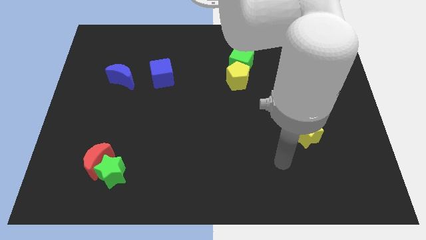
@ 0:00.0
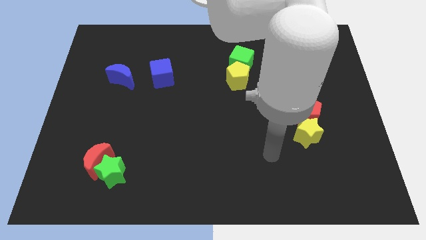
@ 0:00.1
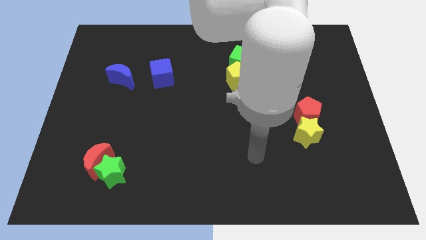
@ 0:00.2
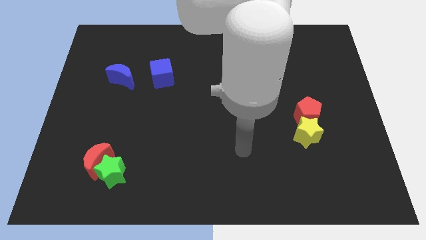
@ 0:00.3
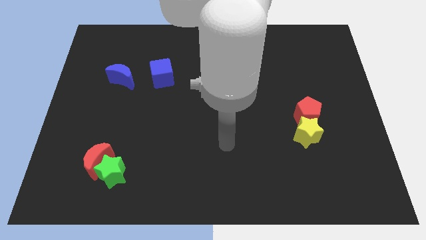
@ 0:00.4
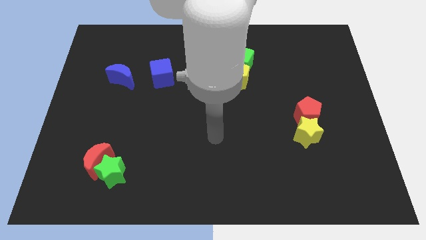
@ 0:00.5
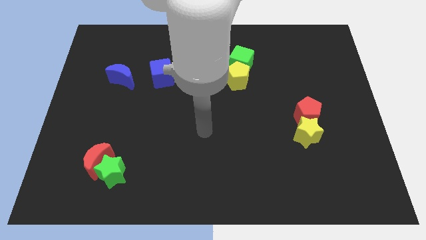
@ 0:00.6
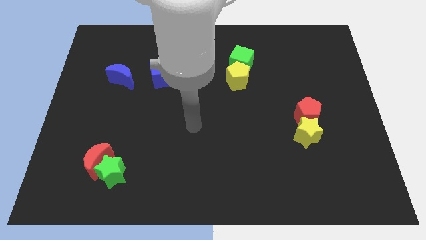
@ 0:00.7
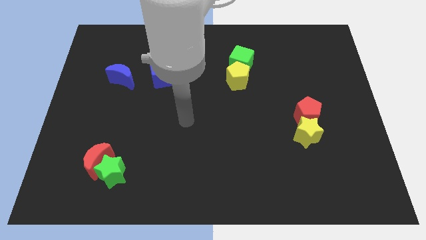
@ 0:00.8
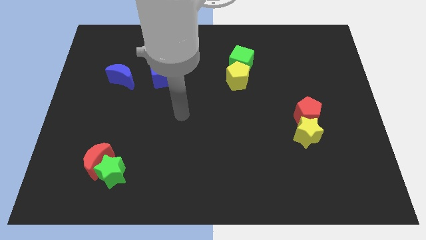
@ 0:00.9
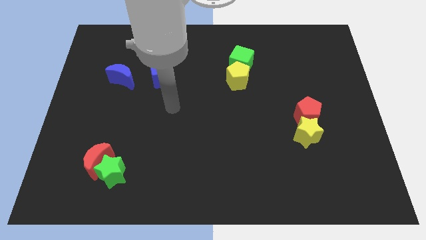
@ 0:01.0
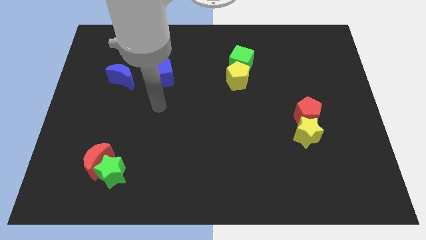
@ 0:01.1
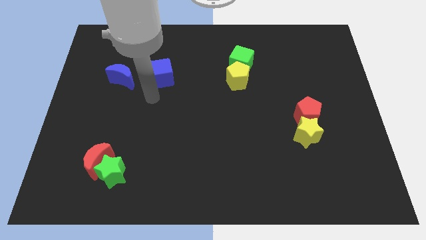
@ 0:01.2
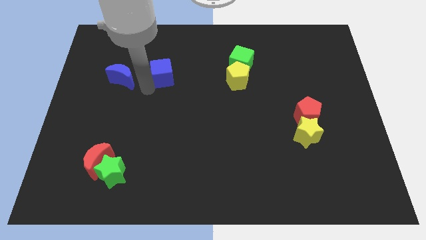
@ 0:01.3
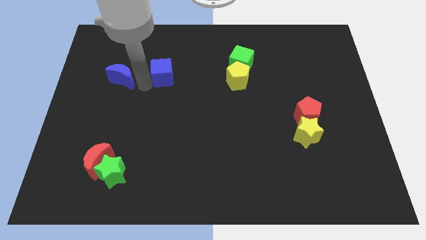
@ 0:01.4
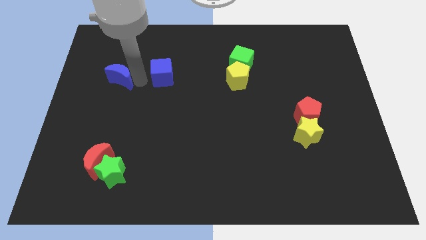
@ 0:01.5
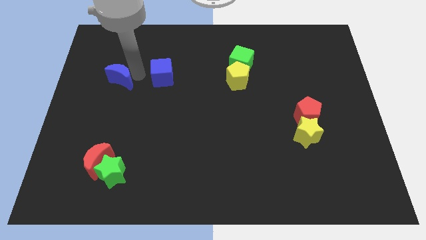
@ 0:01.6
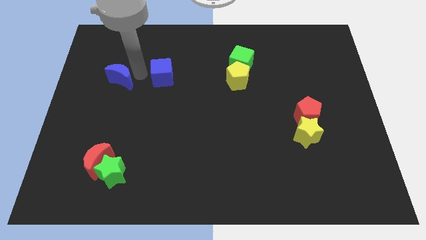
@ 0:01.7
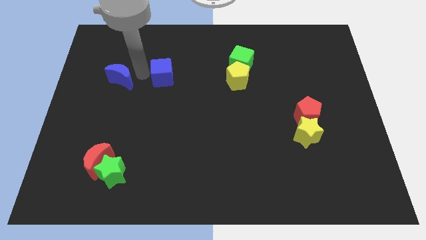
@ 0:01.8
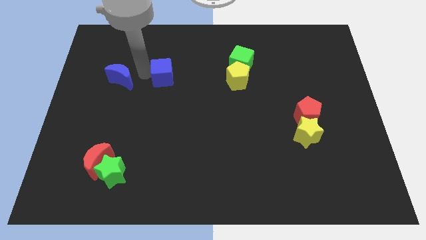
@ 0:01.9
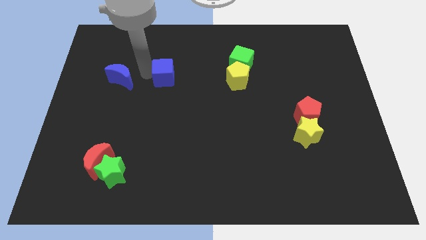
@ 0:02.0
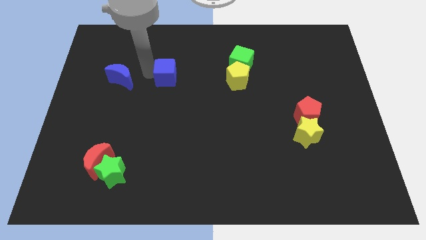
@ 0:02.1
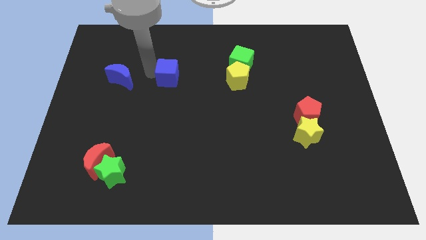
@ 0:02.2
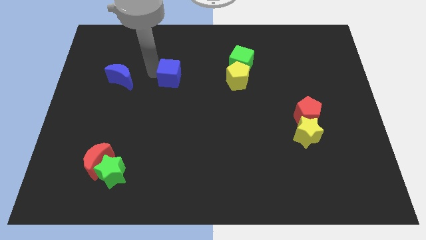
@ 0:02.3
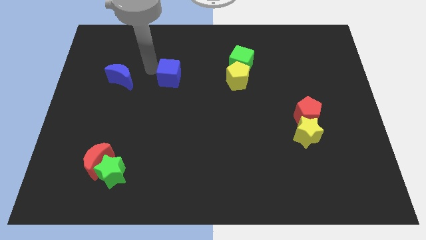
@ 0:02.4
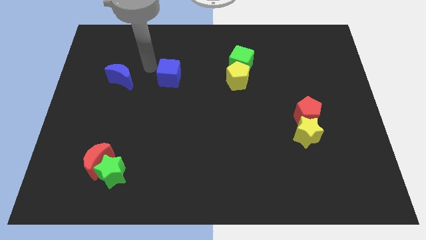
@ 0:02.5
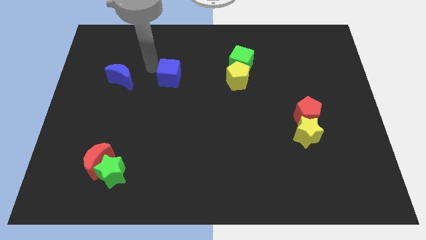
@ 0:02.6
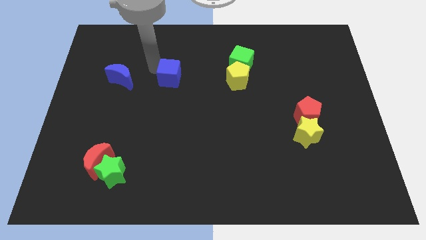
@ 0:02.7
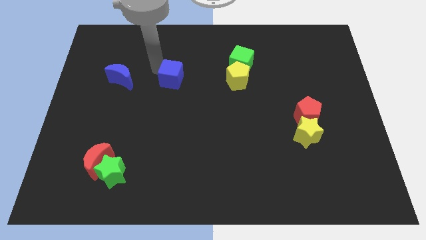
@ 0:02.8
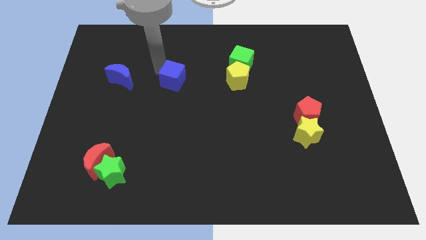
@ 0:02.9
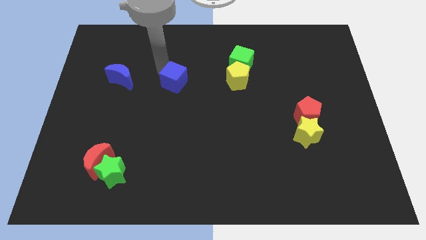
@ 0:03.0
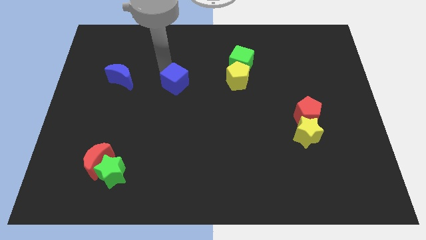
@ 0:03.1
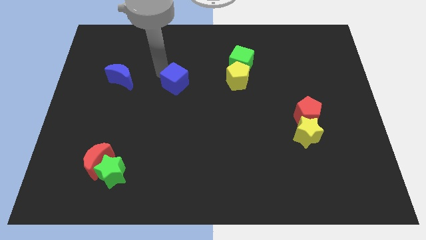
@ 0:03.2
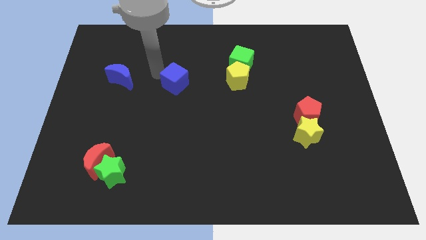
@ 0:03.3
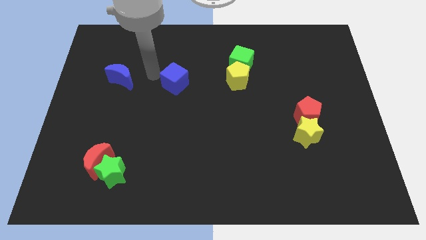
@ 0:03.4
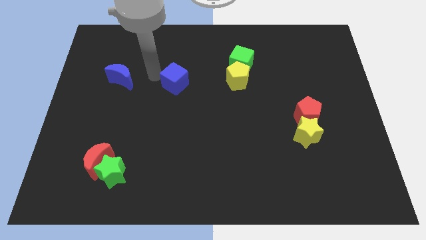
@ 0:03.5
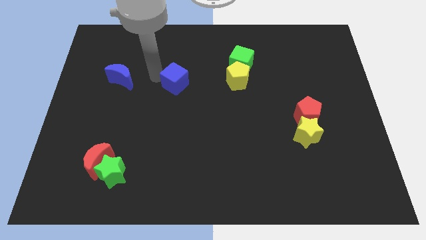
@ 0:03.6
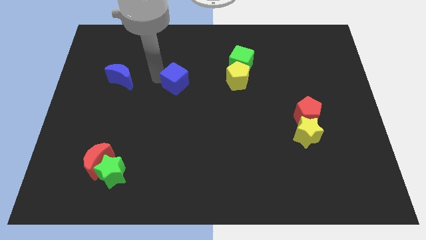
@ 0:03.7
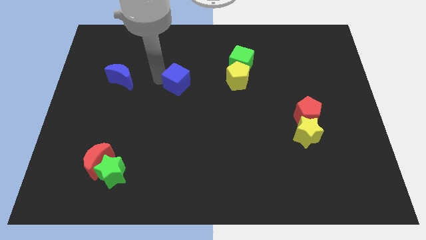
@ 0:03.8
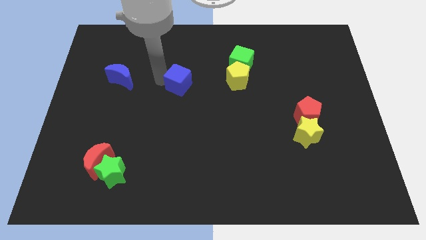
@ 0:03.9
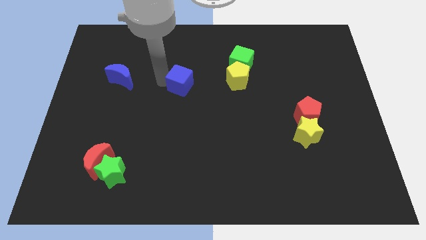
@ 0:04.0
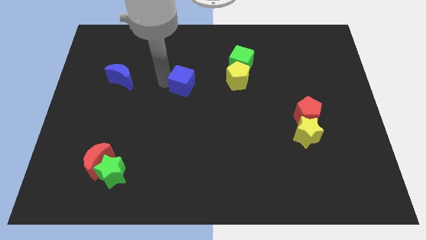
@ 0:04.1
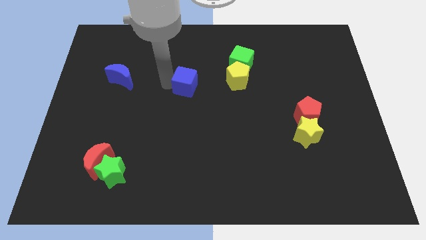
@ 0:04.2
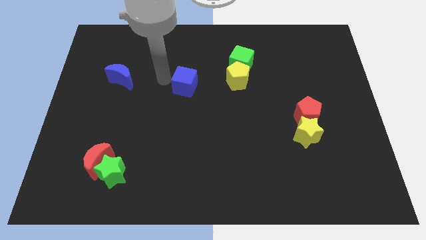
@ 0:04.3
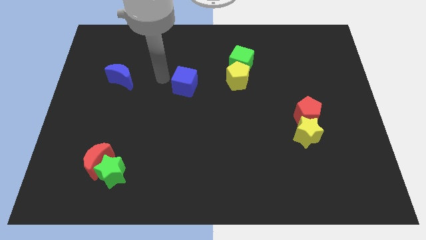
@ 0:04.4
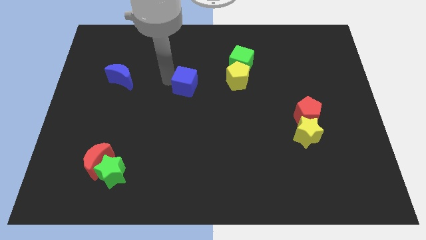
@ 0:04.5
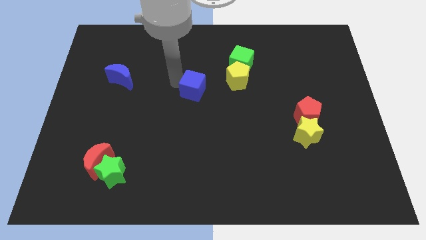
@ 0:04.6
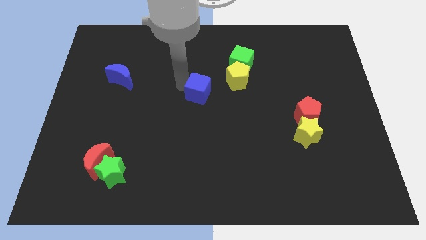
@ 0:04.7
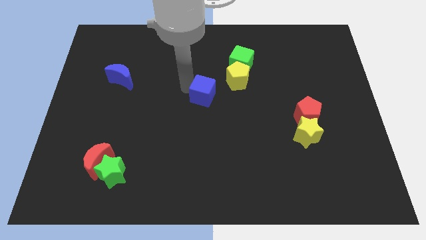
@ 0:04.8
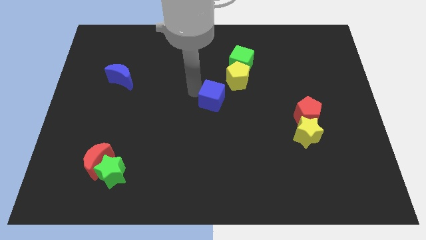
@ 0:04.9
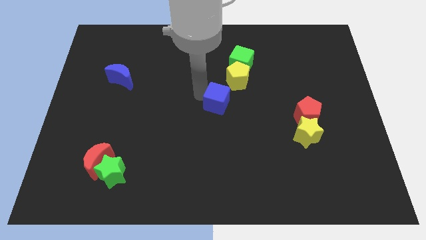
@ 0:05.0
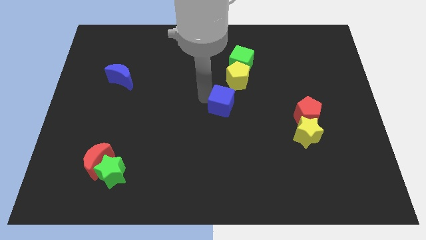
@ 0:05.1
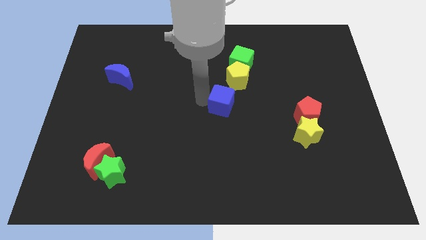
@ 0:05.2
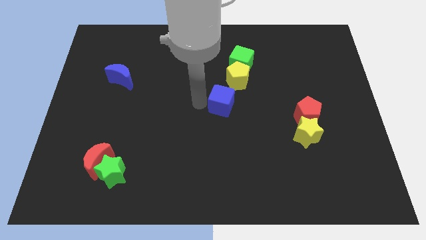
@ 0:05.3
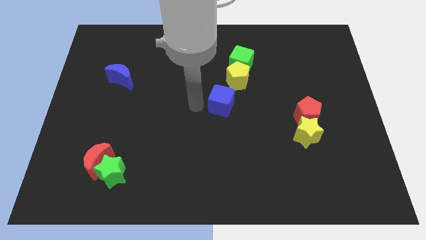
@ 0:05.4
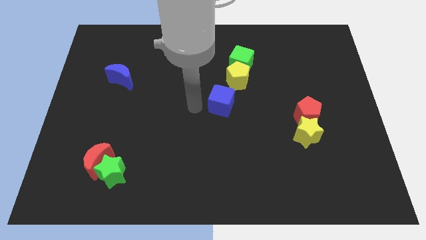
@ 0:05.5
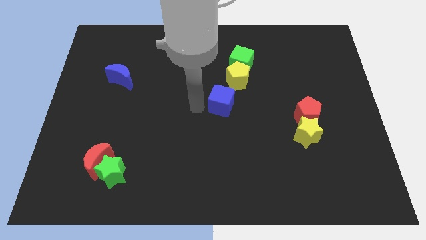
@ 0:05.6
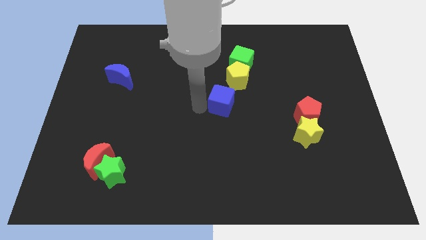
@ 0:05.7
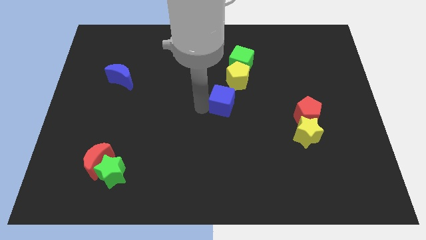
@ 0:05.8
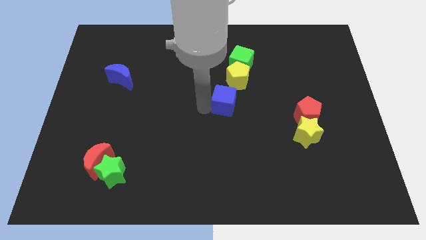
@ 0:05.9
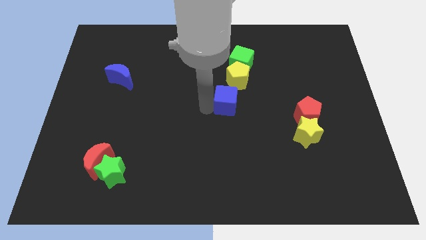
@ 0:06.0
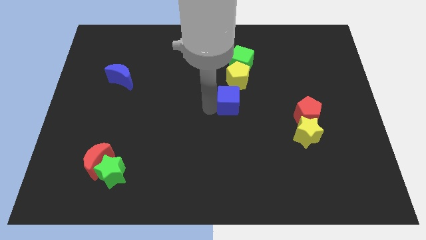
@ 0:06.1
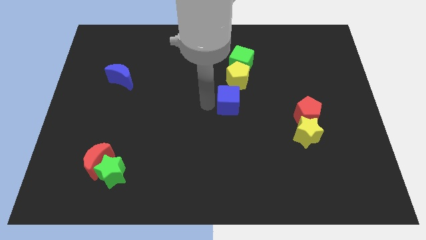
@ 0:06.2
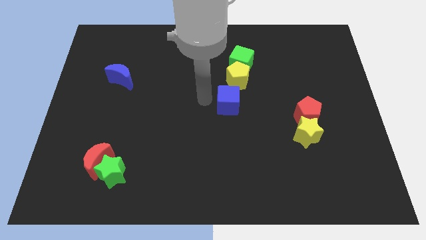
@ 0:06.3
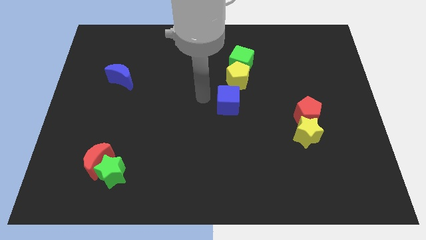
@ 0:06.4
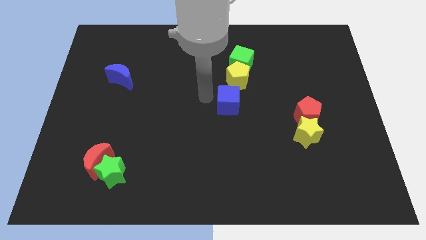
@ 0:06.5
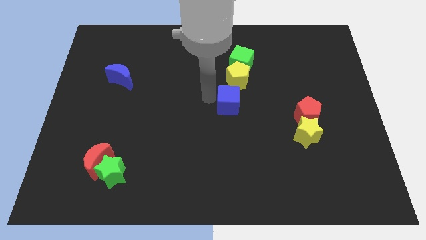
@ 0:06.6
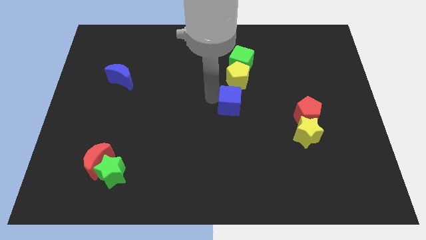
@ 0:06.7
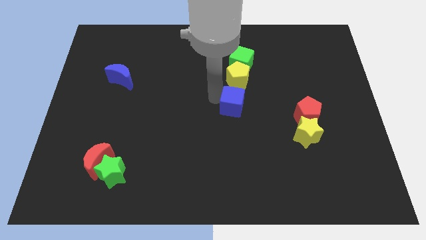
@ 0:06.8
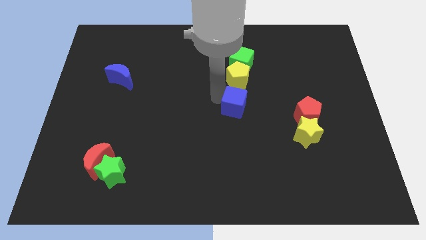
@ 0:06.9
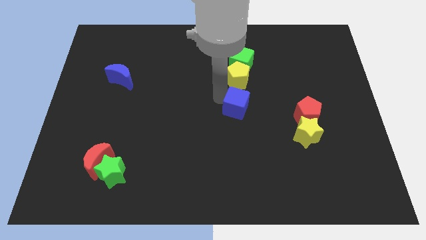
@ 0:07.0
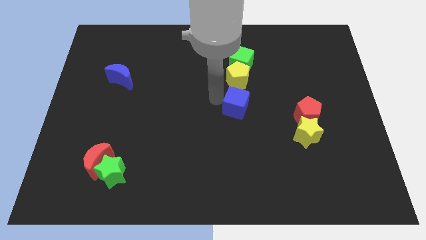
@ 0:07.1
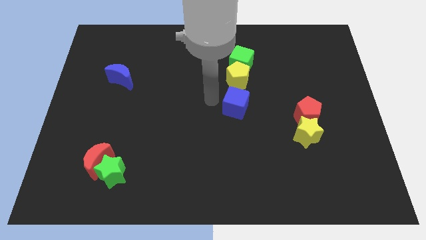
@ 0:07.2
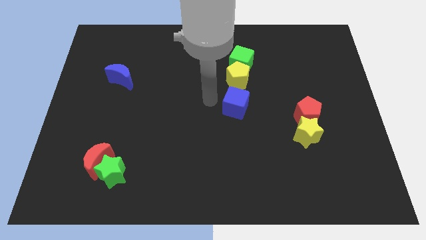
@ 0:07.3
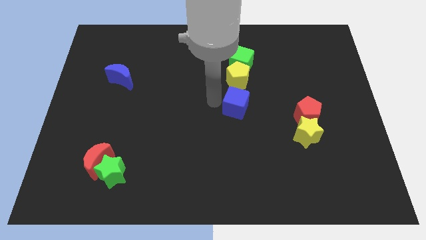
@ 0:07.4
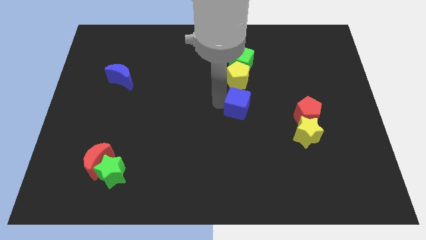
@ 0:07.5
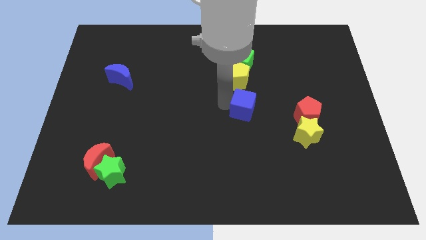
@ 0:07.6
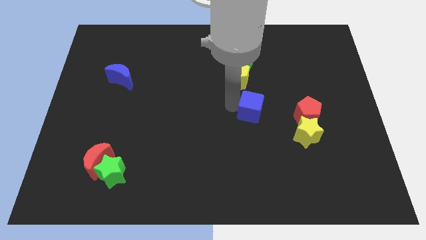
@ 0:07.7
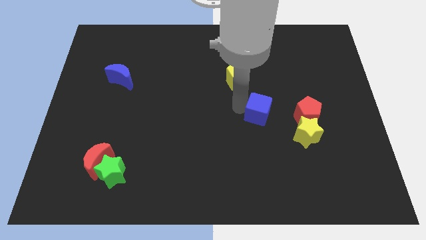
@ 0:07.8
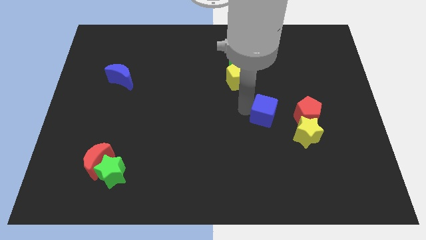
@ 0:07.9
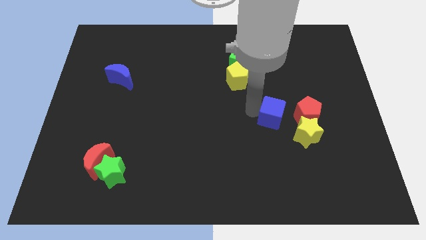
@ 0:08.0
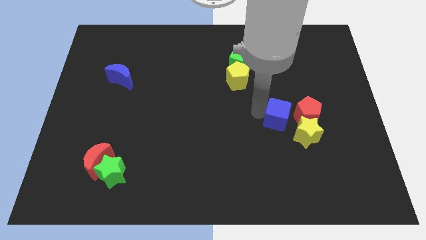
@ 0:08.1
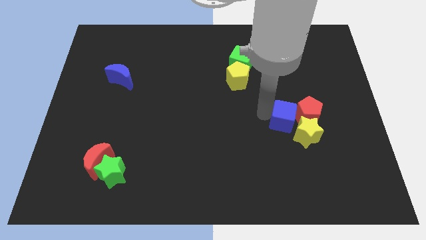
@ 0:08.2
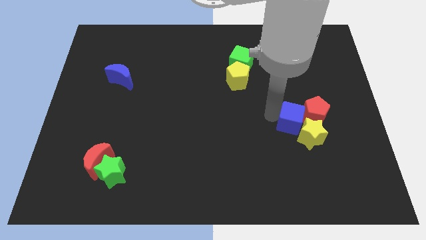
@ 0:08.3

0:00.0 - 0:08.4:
put the blue cube next to the yellow star
